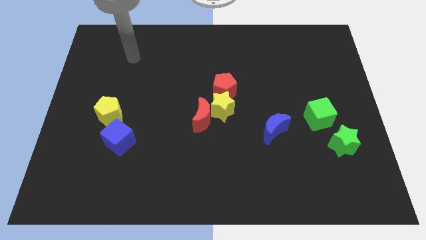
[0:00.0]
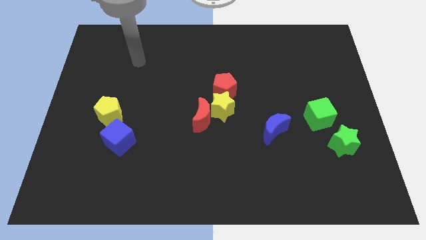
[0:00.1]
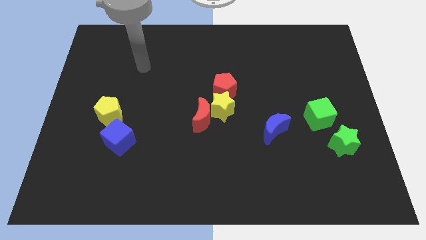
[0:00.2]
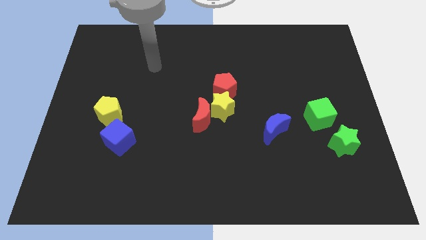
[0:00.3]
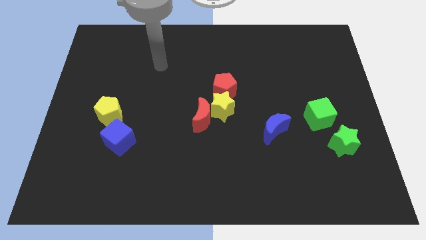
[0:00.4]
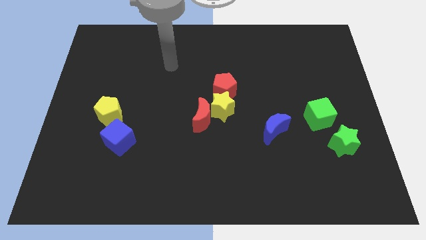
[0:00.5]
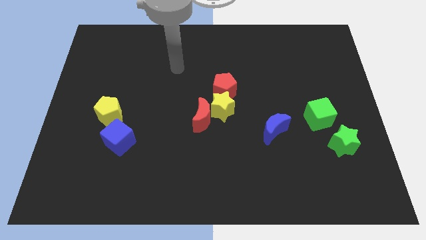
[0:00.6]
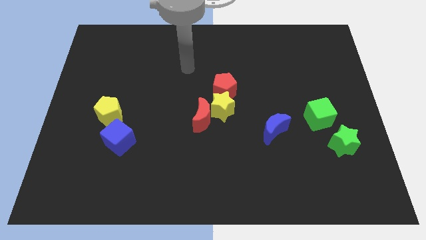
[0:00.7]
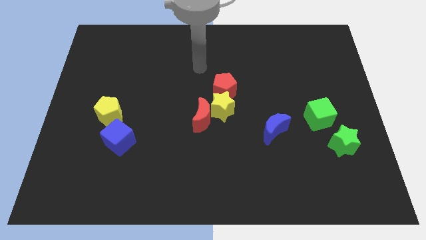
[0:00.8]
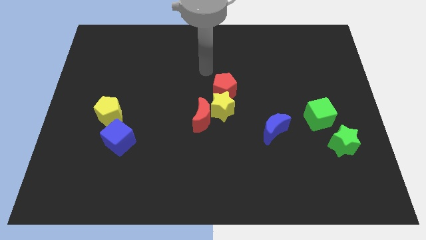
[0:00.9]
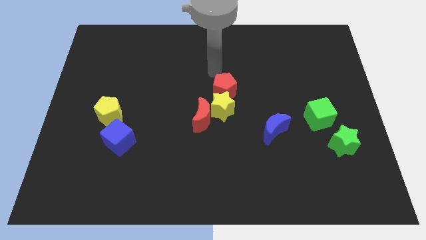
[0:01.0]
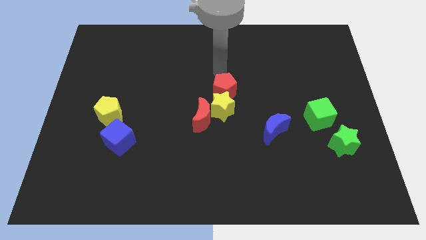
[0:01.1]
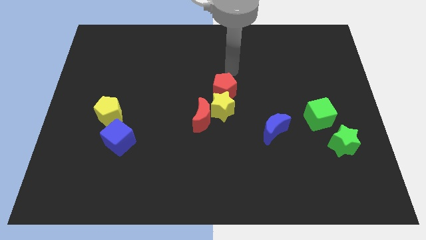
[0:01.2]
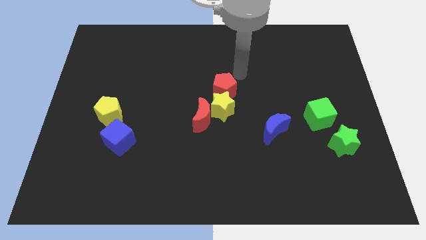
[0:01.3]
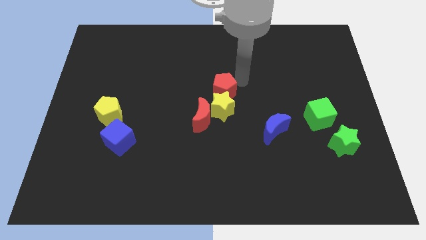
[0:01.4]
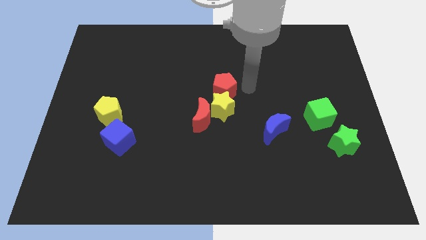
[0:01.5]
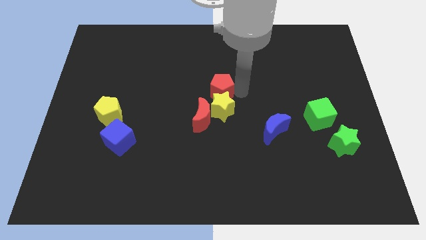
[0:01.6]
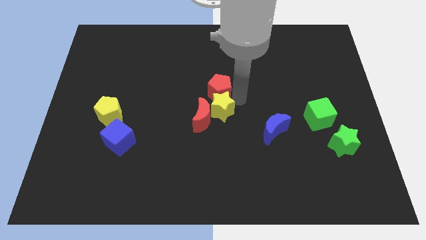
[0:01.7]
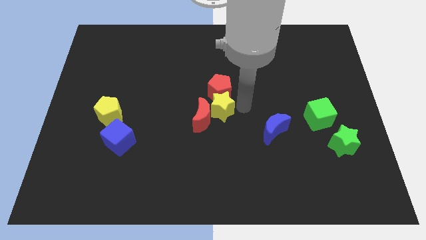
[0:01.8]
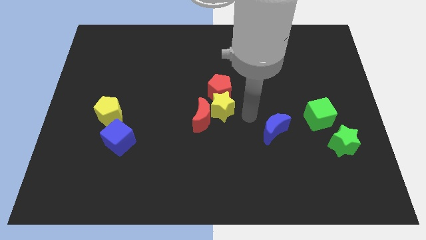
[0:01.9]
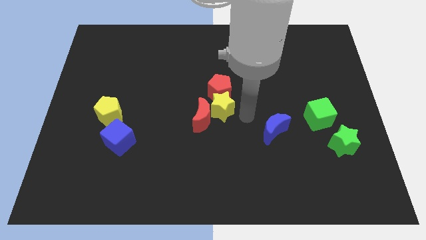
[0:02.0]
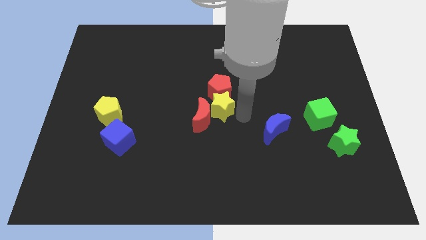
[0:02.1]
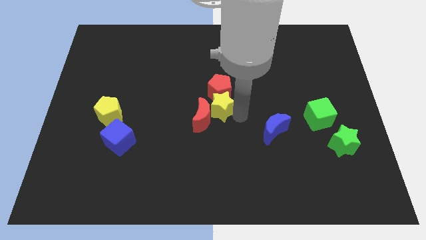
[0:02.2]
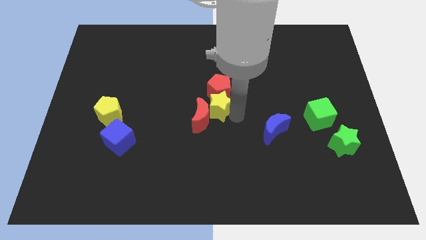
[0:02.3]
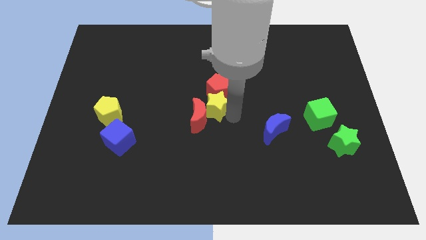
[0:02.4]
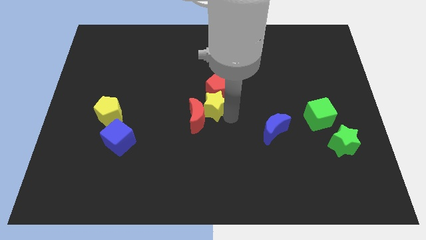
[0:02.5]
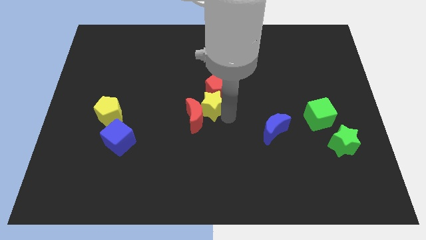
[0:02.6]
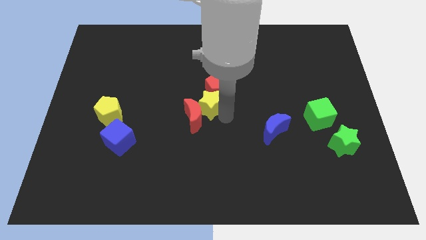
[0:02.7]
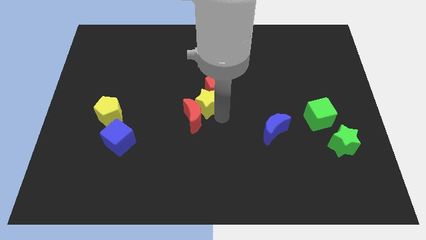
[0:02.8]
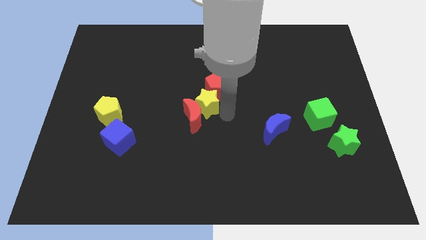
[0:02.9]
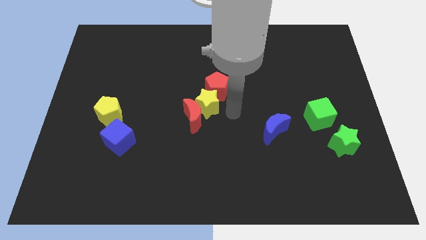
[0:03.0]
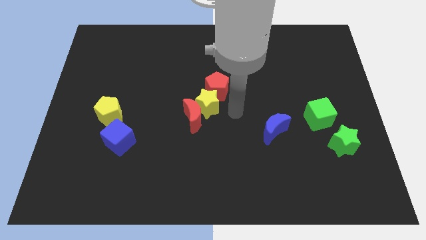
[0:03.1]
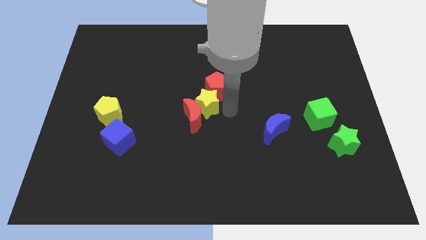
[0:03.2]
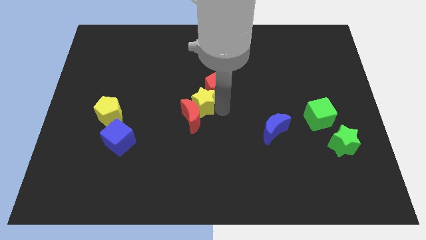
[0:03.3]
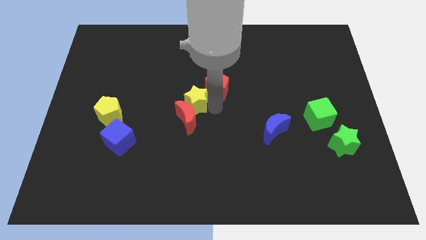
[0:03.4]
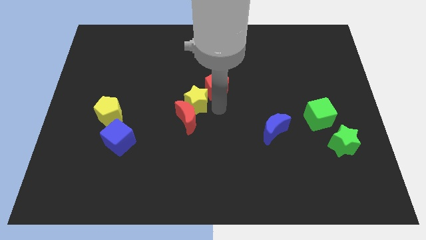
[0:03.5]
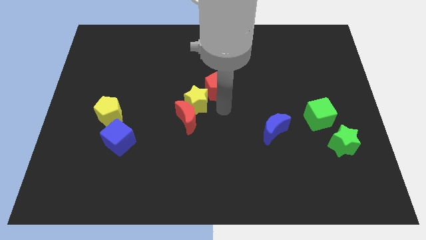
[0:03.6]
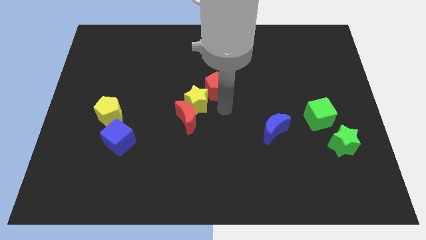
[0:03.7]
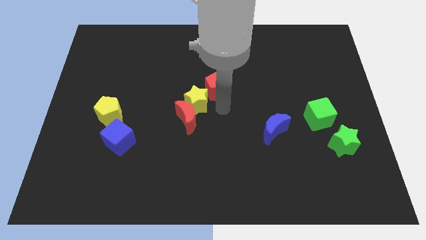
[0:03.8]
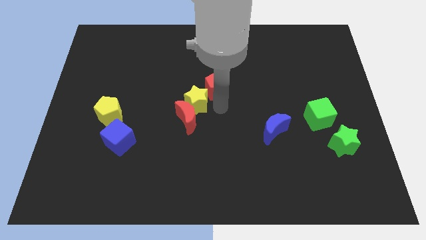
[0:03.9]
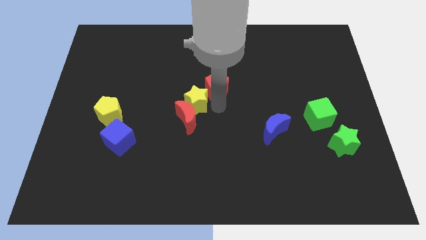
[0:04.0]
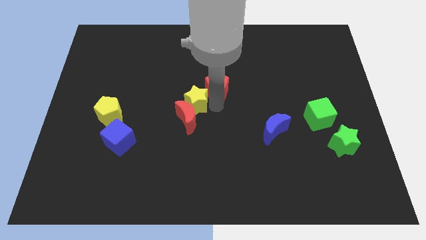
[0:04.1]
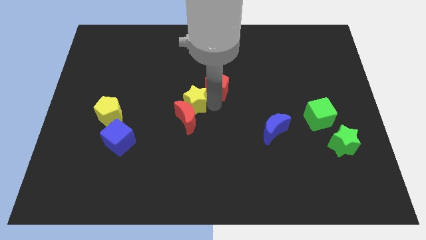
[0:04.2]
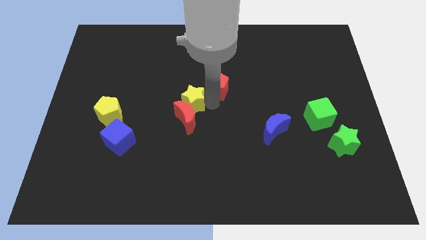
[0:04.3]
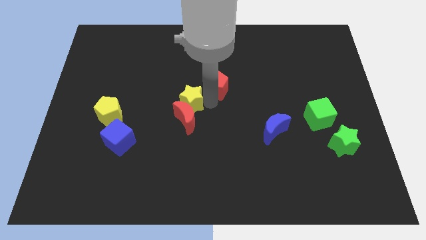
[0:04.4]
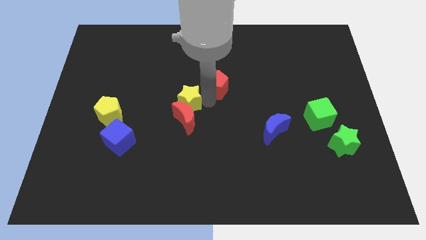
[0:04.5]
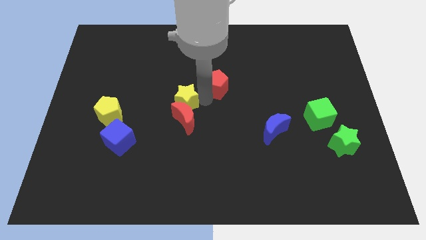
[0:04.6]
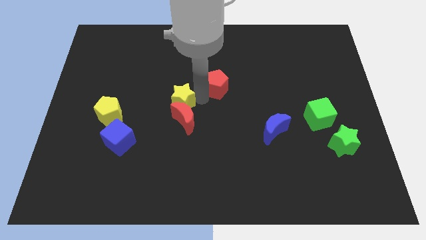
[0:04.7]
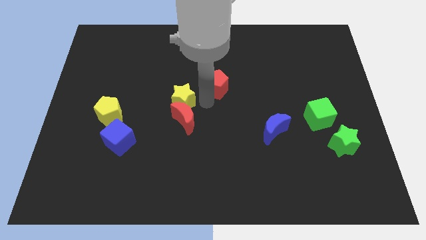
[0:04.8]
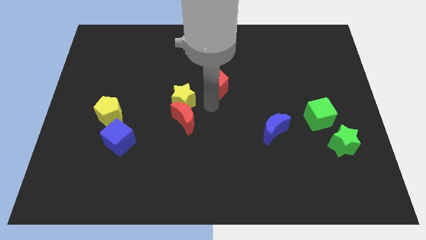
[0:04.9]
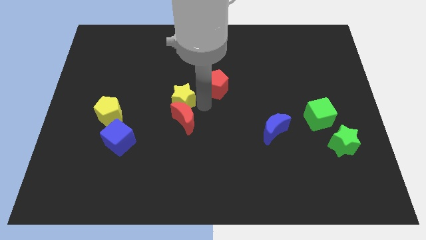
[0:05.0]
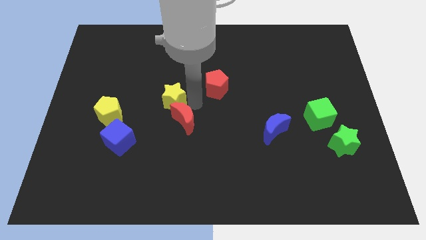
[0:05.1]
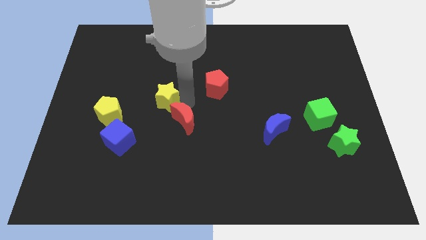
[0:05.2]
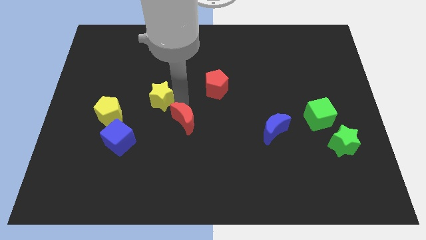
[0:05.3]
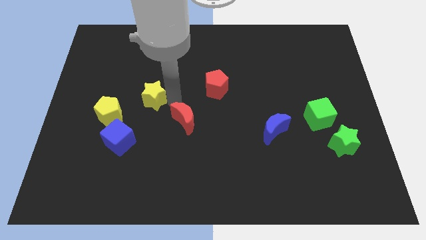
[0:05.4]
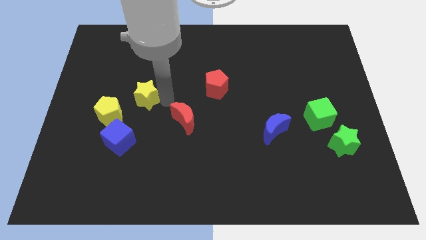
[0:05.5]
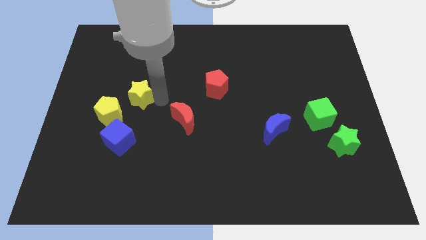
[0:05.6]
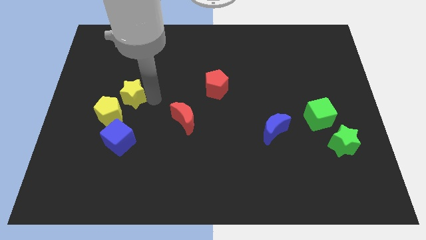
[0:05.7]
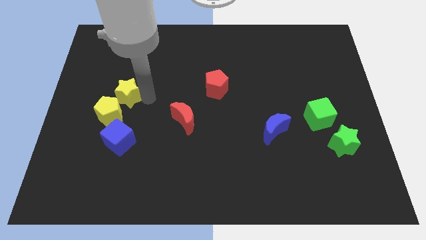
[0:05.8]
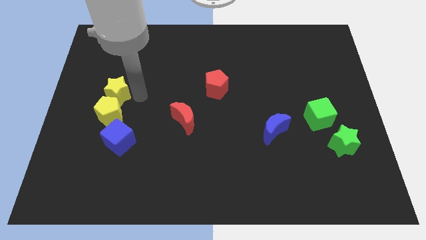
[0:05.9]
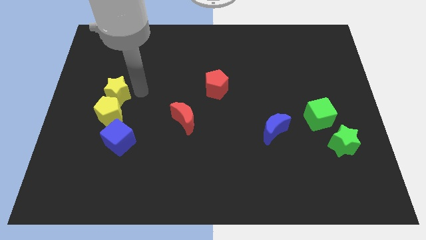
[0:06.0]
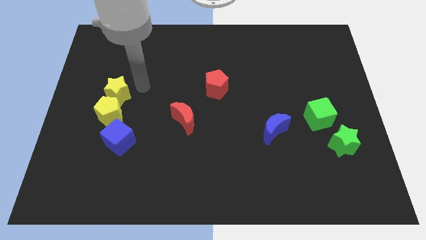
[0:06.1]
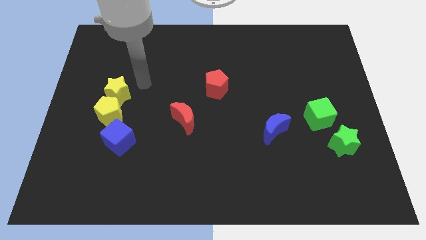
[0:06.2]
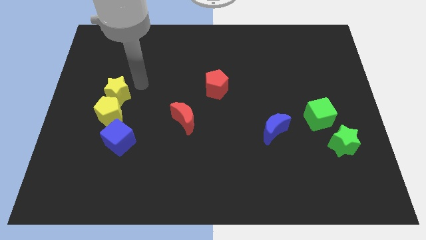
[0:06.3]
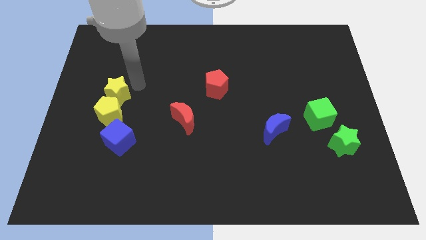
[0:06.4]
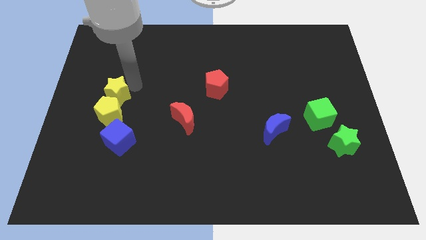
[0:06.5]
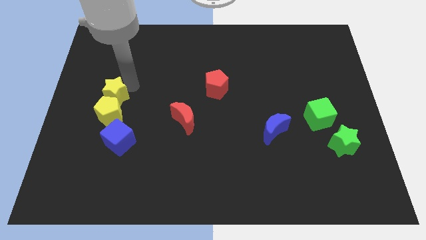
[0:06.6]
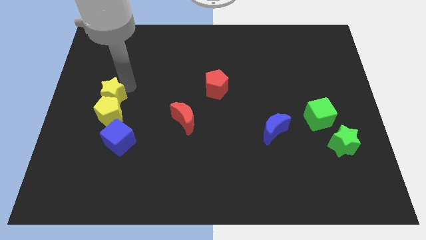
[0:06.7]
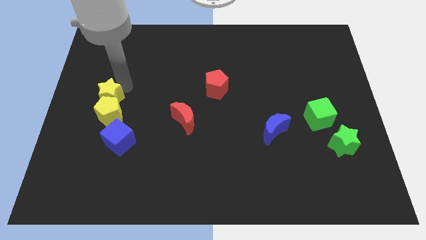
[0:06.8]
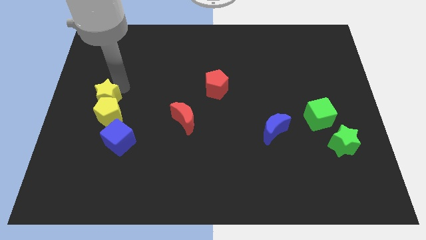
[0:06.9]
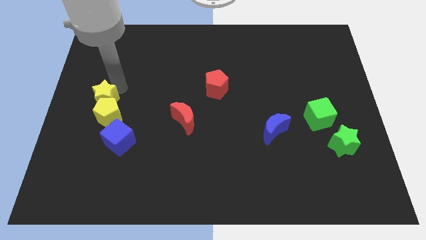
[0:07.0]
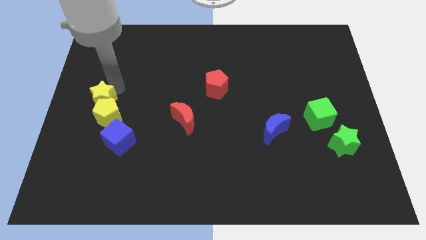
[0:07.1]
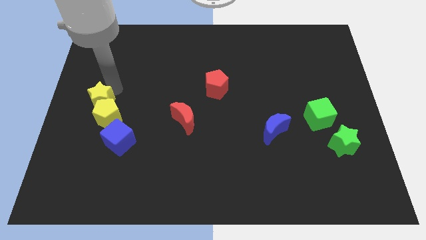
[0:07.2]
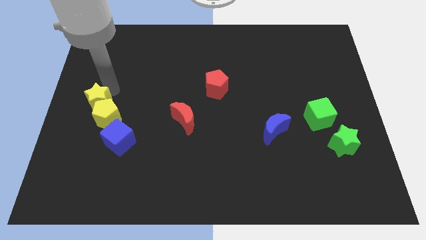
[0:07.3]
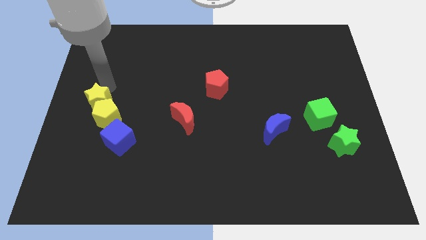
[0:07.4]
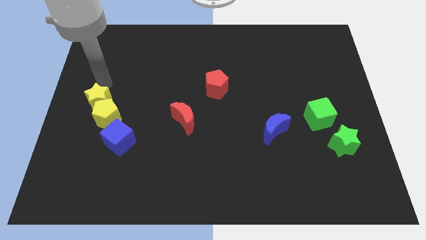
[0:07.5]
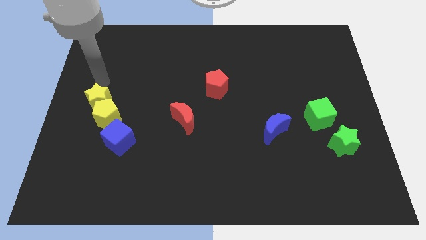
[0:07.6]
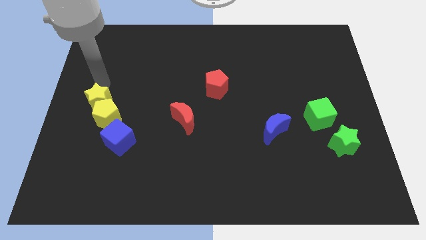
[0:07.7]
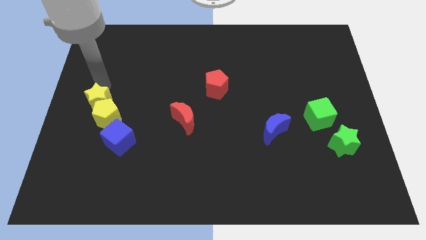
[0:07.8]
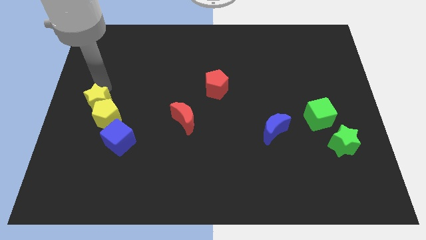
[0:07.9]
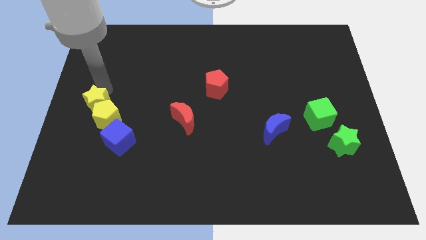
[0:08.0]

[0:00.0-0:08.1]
move the yellow star to the top left side of the blue cube
